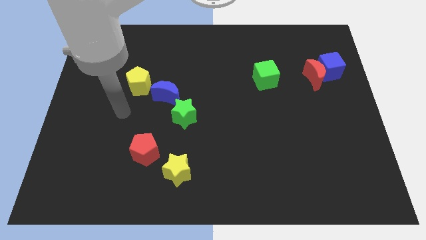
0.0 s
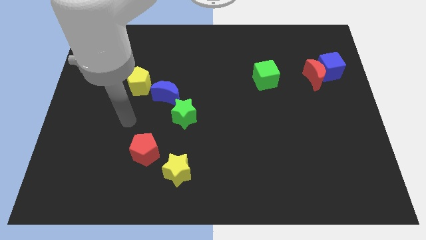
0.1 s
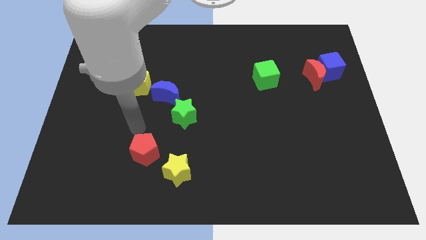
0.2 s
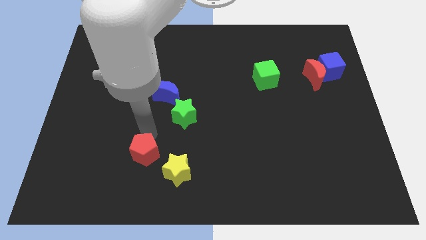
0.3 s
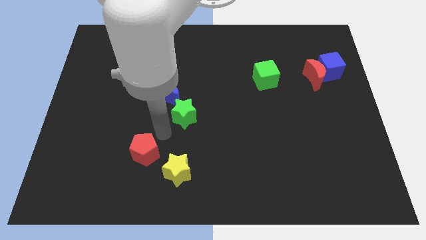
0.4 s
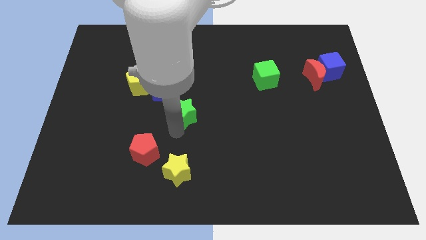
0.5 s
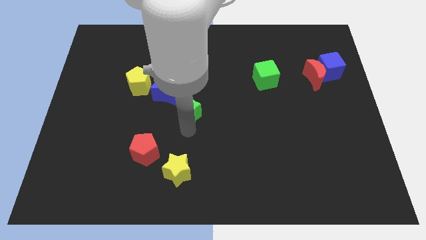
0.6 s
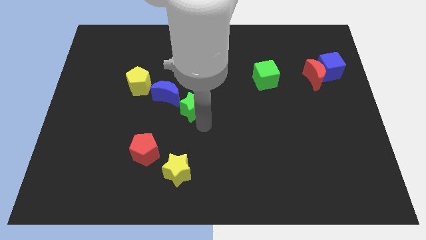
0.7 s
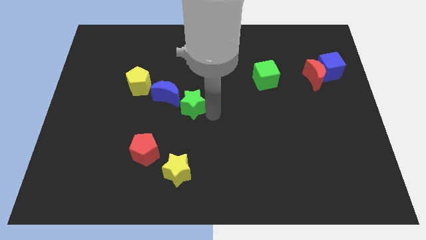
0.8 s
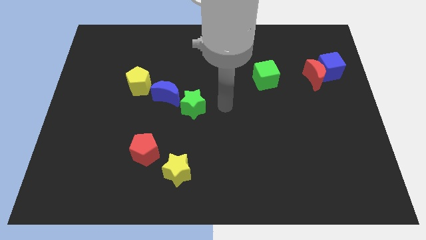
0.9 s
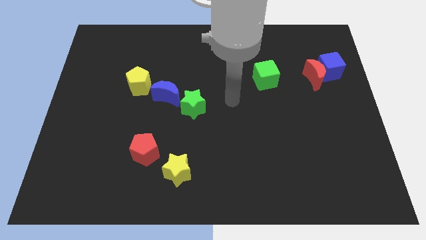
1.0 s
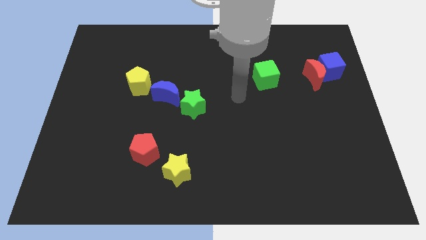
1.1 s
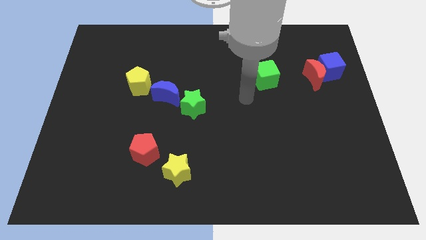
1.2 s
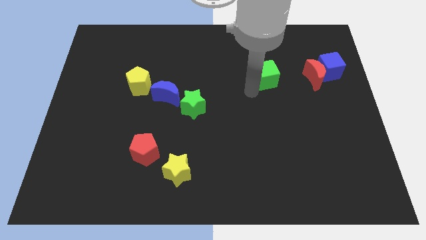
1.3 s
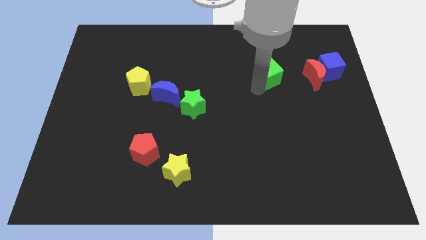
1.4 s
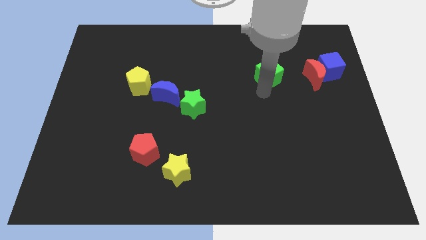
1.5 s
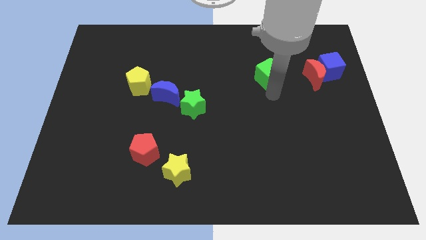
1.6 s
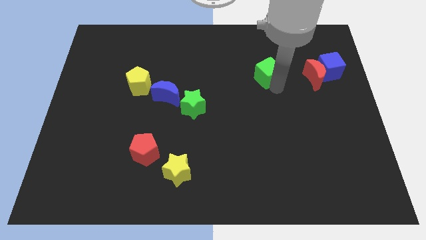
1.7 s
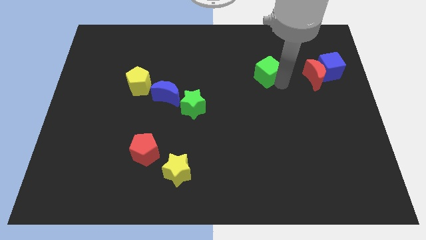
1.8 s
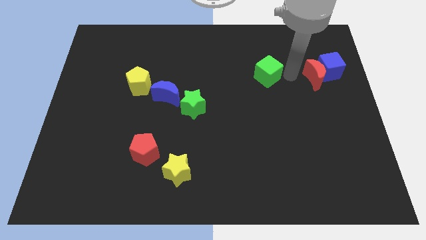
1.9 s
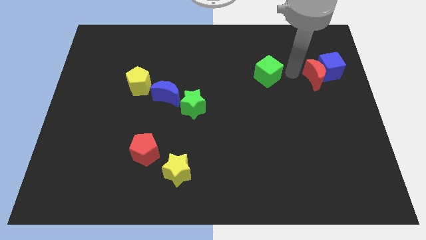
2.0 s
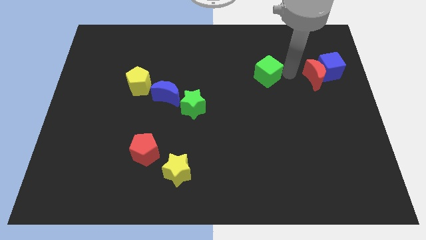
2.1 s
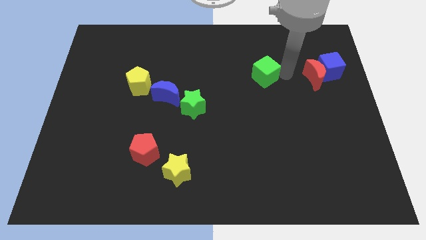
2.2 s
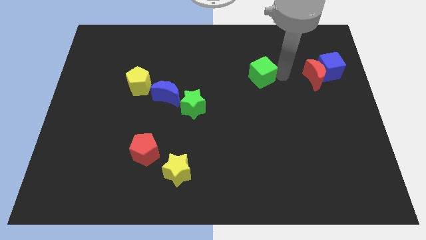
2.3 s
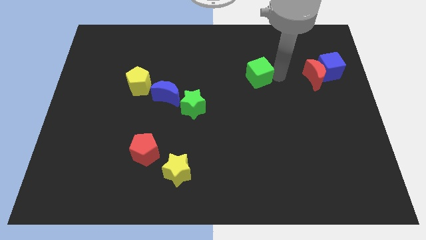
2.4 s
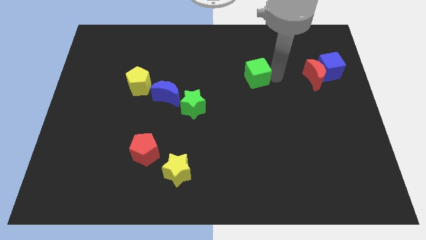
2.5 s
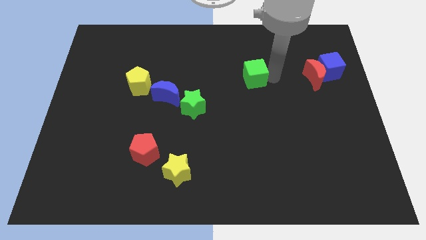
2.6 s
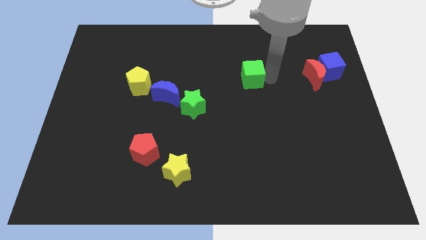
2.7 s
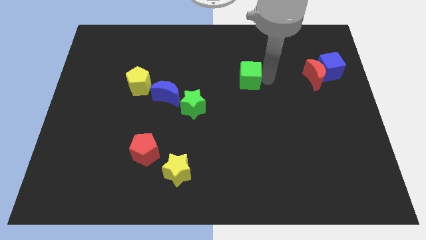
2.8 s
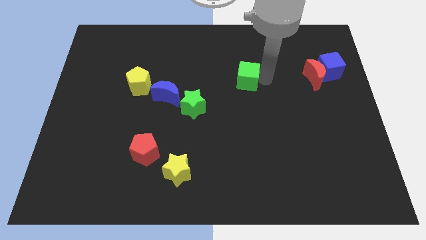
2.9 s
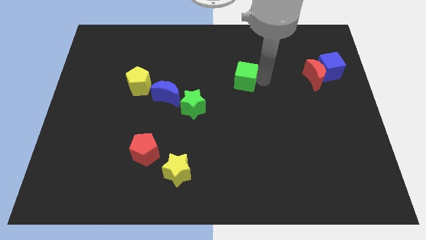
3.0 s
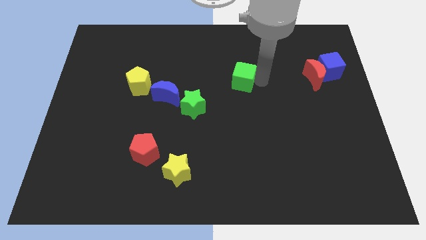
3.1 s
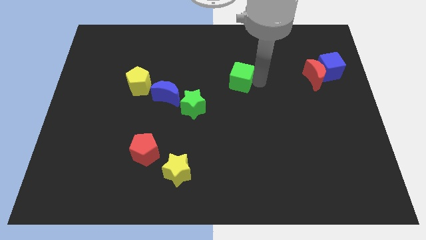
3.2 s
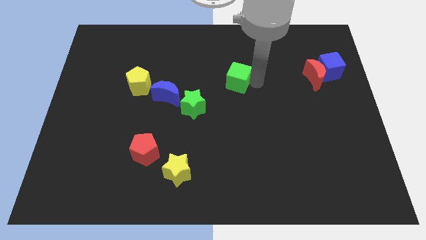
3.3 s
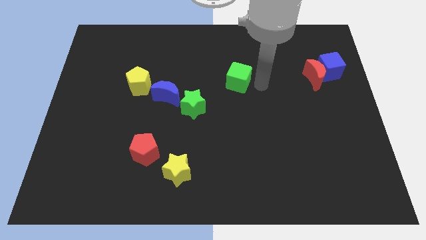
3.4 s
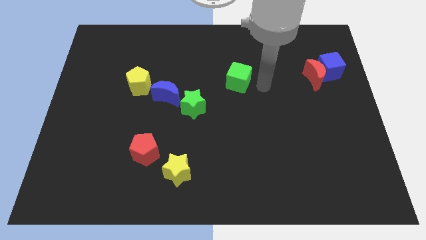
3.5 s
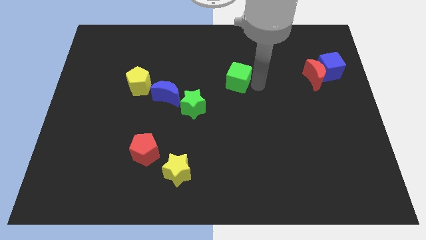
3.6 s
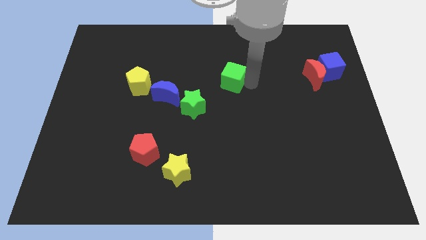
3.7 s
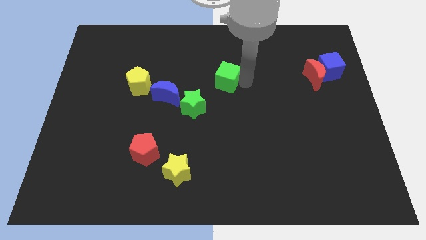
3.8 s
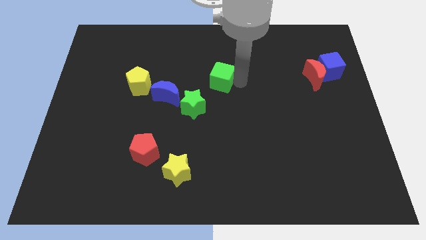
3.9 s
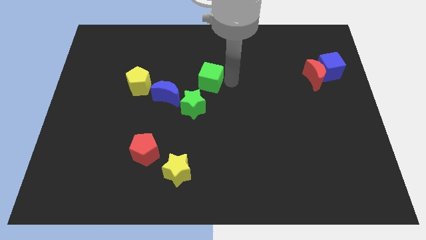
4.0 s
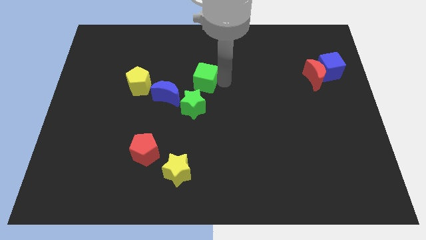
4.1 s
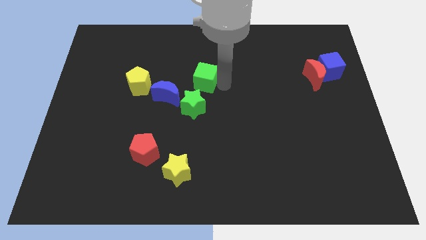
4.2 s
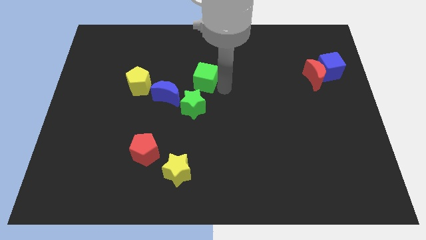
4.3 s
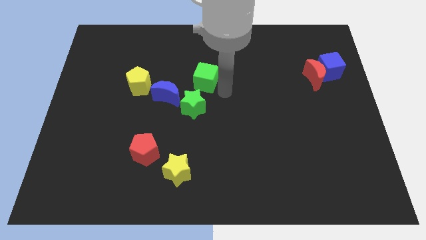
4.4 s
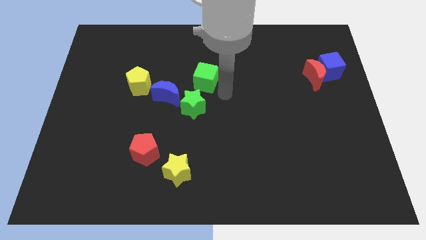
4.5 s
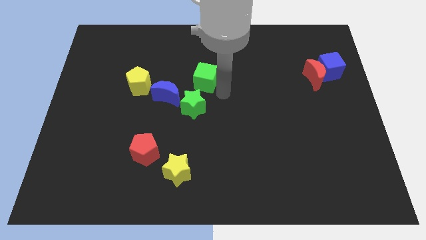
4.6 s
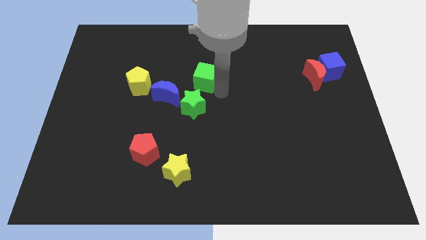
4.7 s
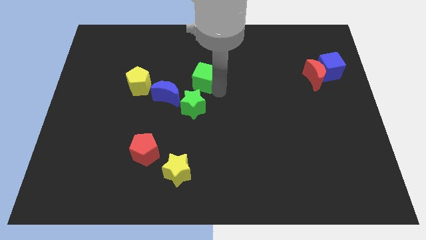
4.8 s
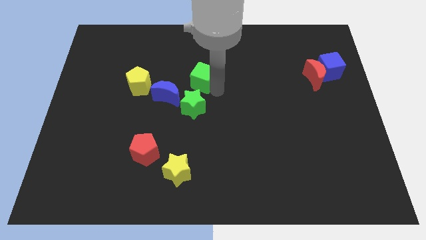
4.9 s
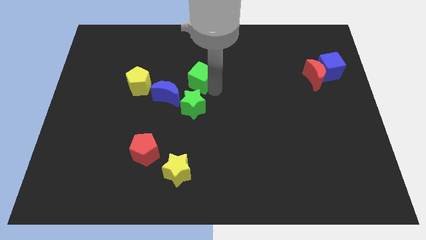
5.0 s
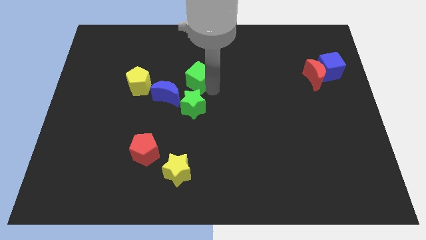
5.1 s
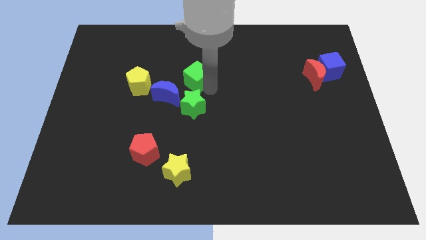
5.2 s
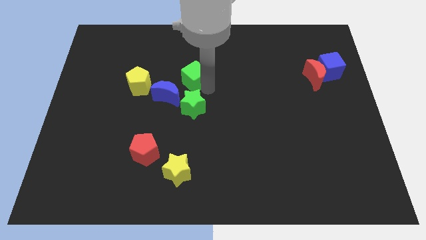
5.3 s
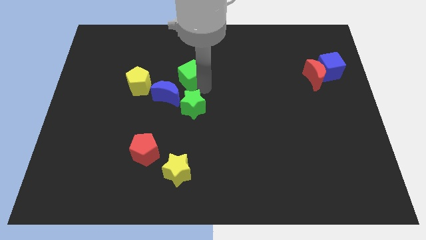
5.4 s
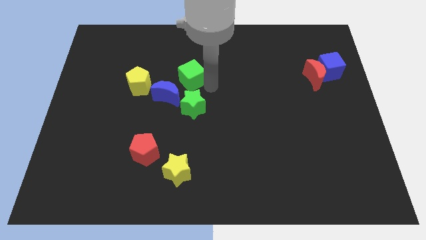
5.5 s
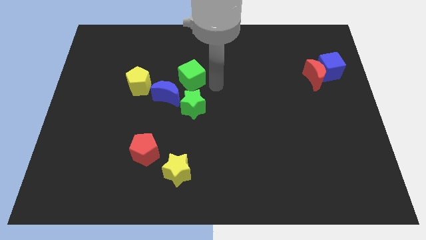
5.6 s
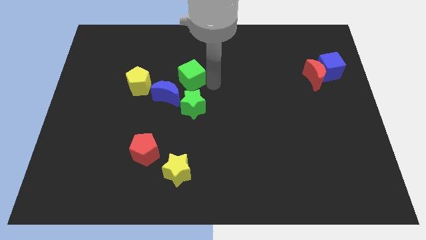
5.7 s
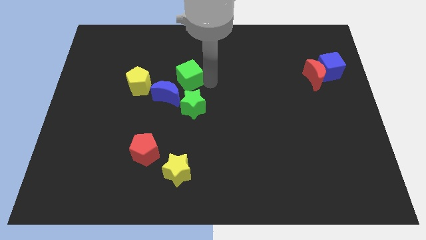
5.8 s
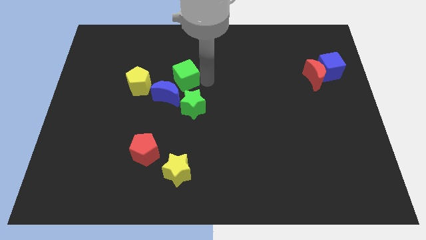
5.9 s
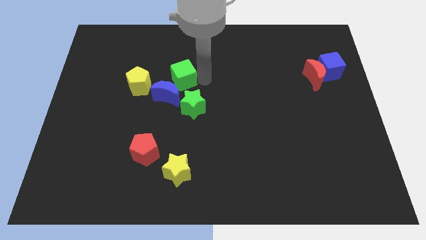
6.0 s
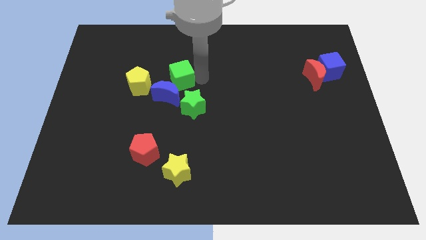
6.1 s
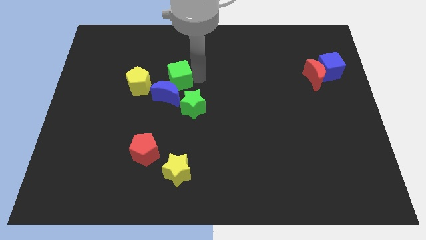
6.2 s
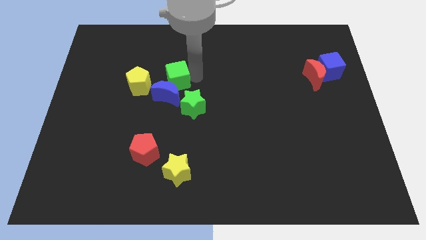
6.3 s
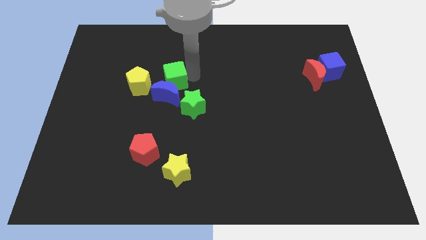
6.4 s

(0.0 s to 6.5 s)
slide the green cube to the top right of the yellow pentagon
